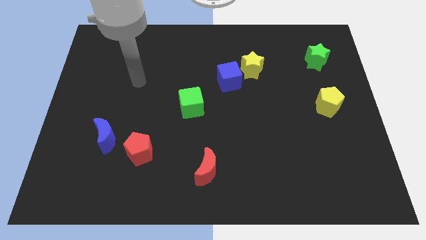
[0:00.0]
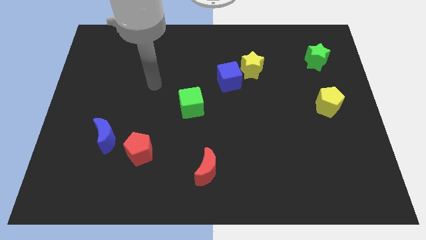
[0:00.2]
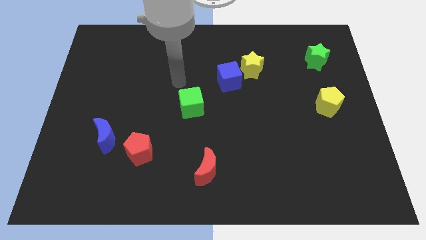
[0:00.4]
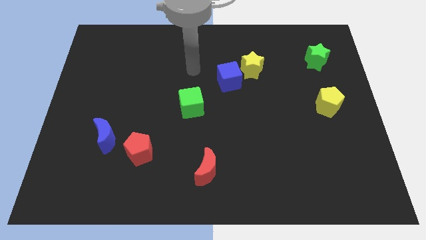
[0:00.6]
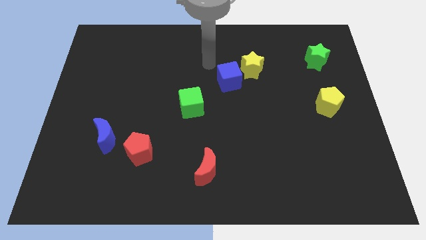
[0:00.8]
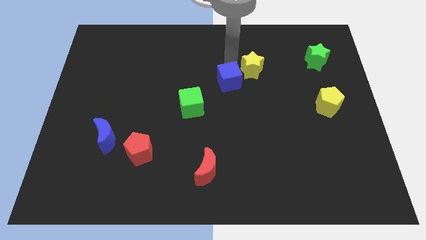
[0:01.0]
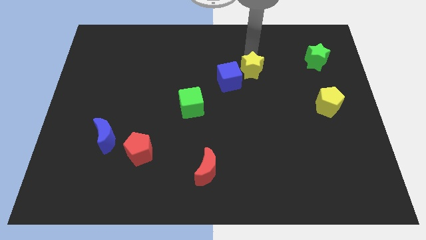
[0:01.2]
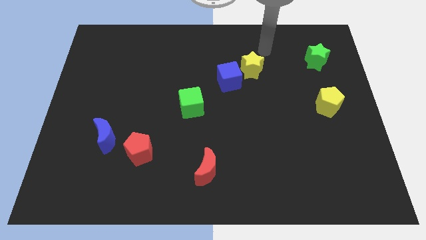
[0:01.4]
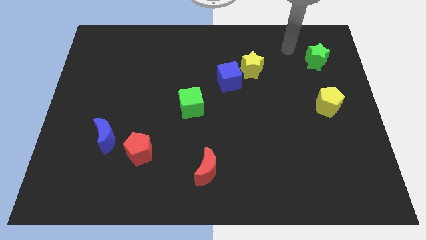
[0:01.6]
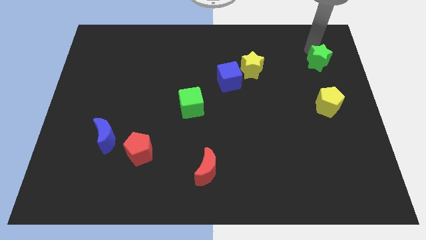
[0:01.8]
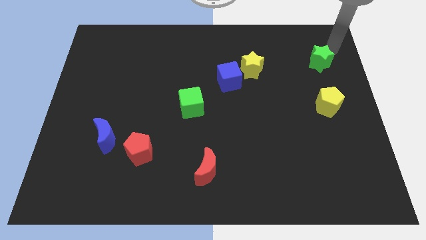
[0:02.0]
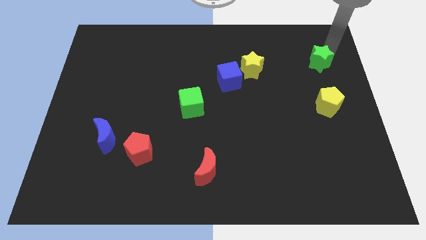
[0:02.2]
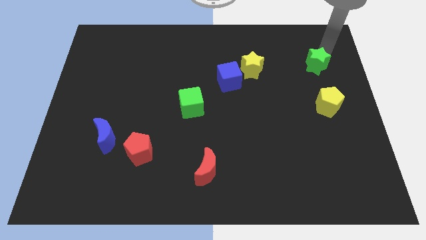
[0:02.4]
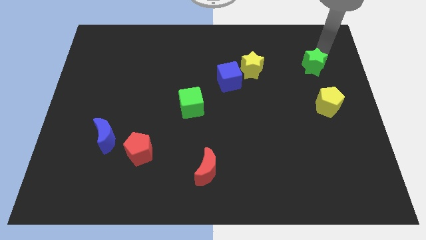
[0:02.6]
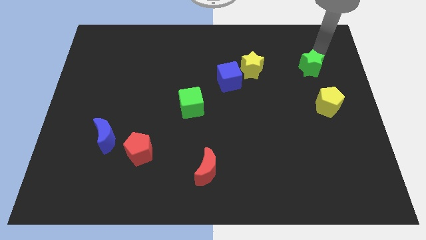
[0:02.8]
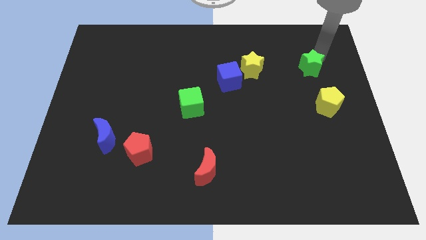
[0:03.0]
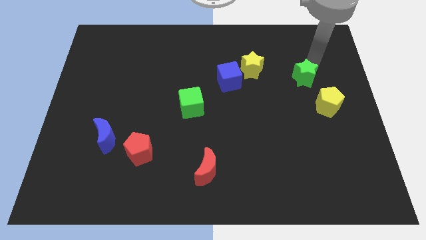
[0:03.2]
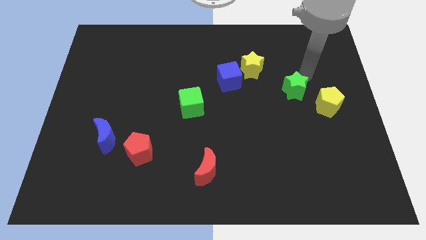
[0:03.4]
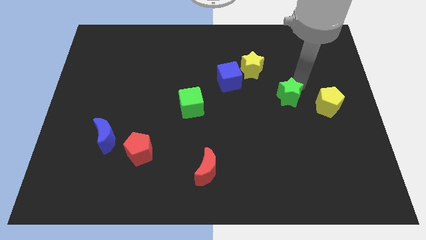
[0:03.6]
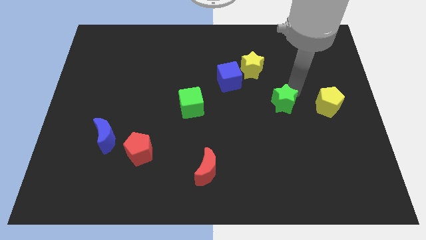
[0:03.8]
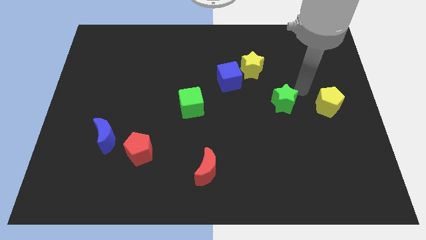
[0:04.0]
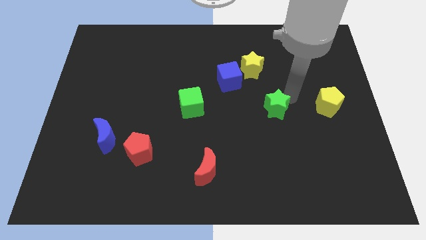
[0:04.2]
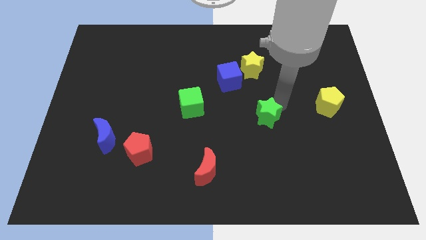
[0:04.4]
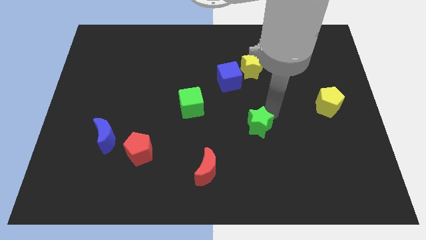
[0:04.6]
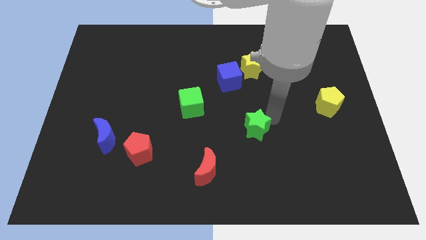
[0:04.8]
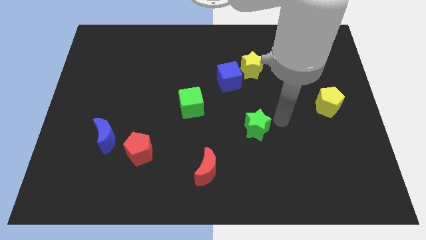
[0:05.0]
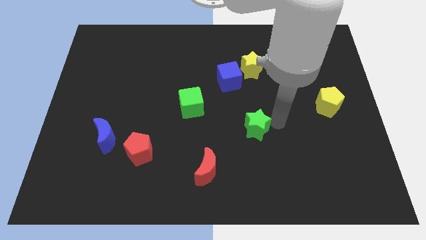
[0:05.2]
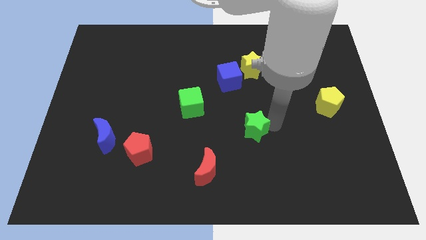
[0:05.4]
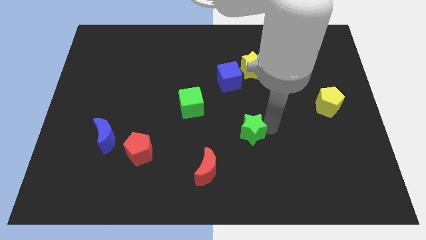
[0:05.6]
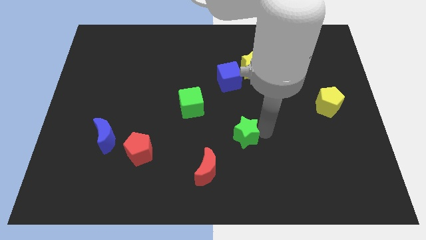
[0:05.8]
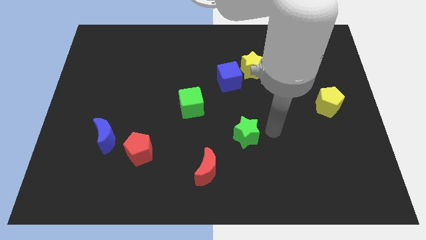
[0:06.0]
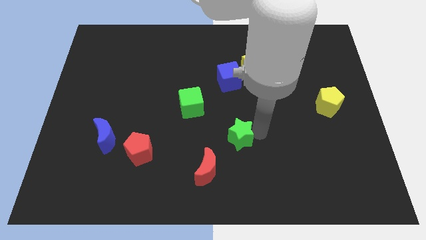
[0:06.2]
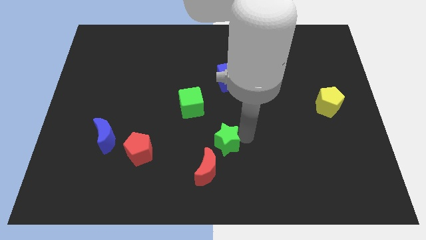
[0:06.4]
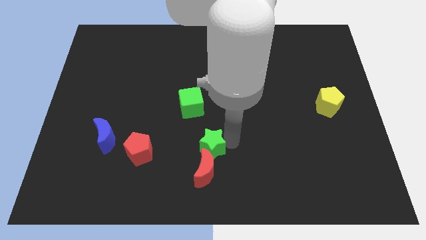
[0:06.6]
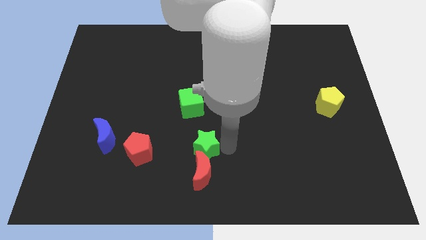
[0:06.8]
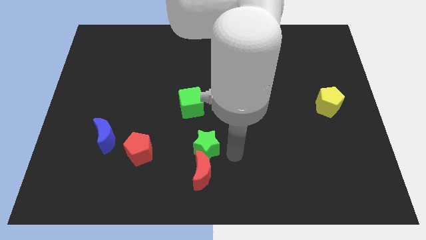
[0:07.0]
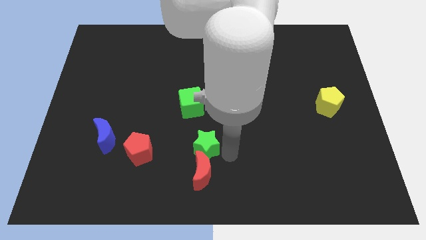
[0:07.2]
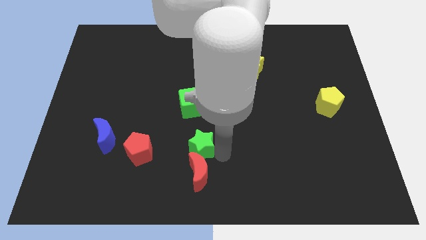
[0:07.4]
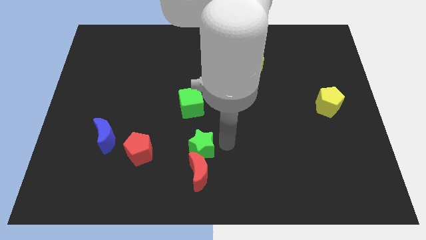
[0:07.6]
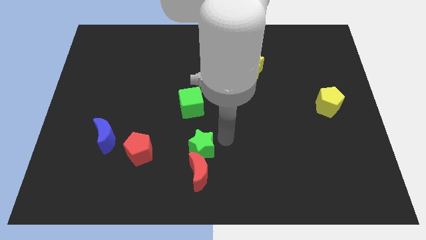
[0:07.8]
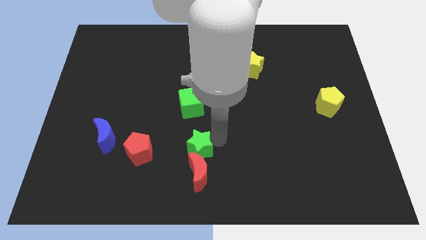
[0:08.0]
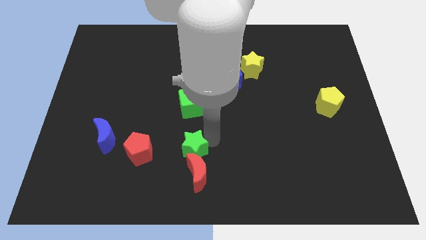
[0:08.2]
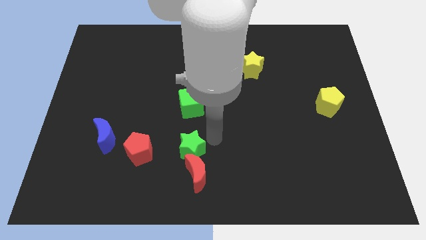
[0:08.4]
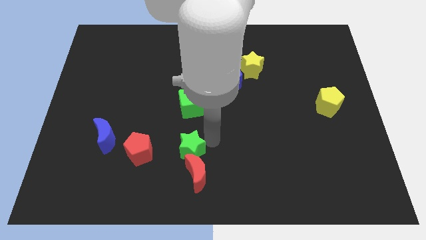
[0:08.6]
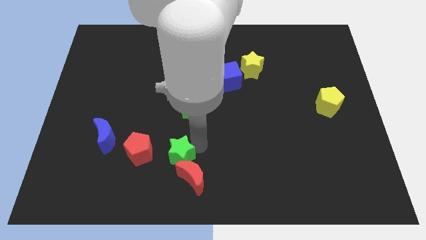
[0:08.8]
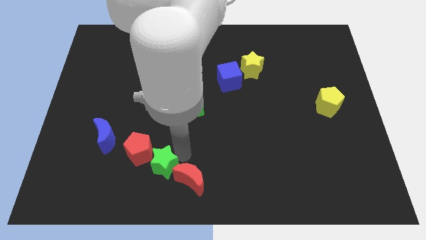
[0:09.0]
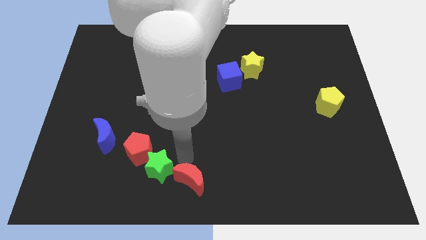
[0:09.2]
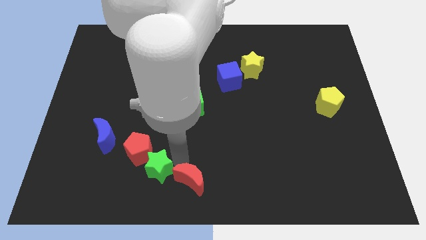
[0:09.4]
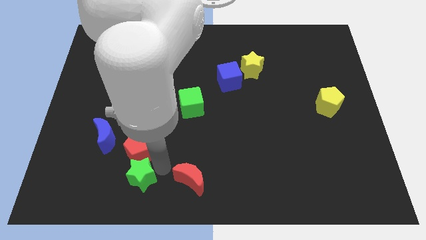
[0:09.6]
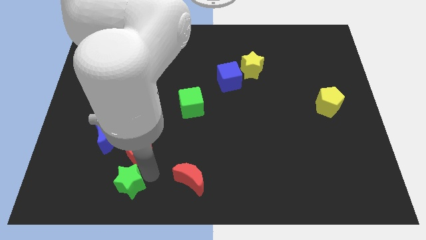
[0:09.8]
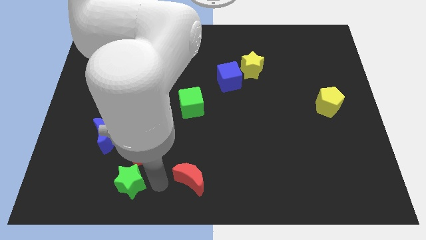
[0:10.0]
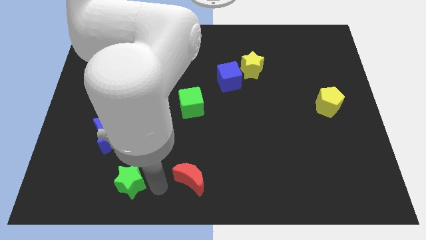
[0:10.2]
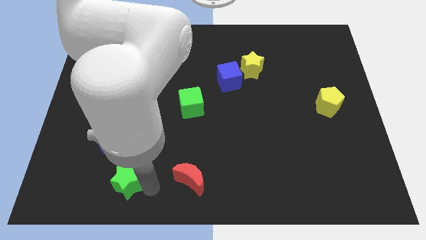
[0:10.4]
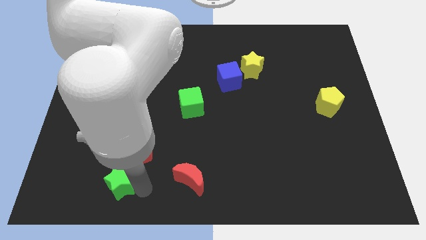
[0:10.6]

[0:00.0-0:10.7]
move the green star below the blue moon
